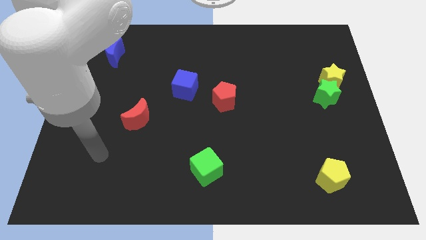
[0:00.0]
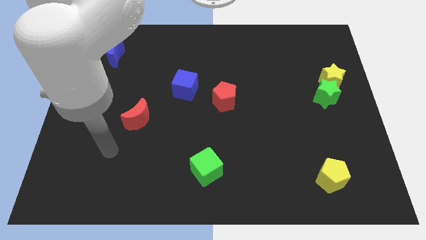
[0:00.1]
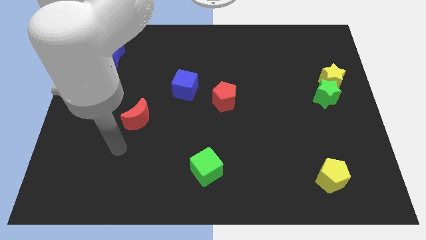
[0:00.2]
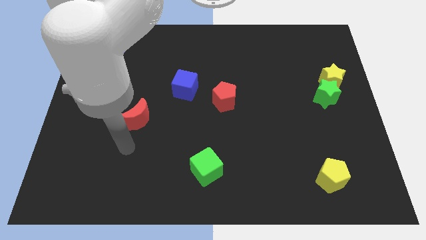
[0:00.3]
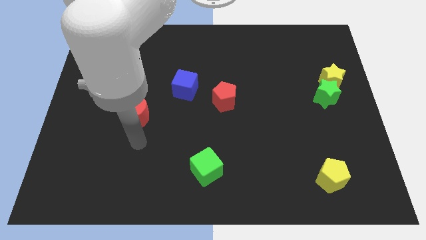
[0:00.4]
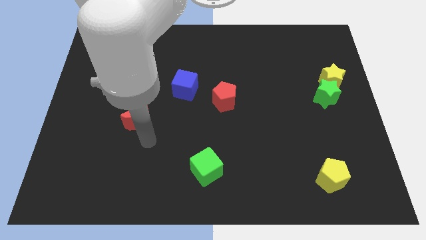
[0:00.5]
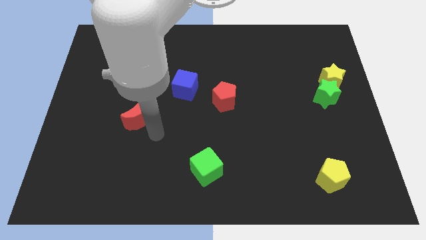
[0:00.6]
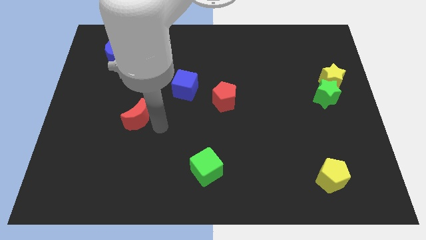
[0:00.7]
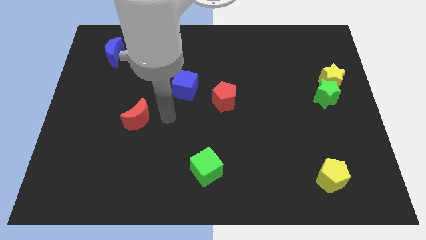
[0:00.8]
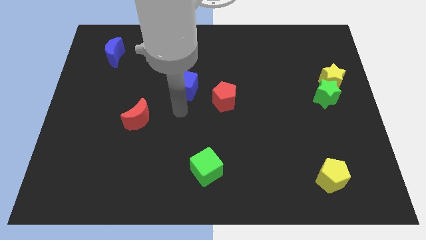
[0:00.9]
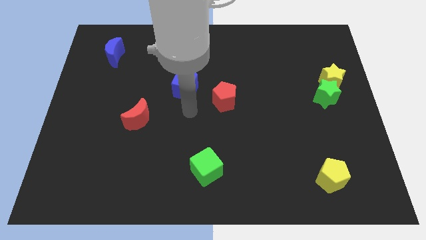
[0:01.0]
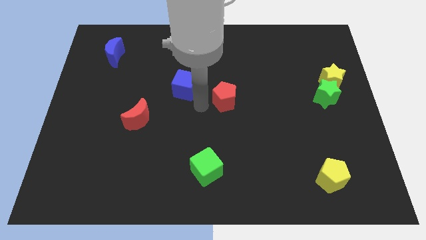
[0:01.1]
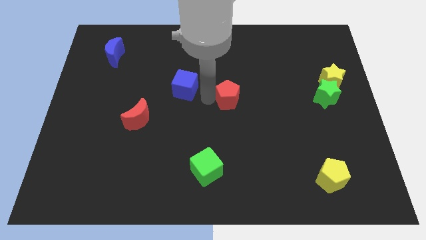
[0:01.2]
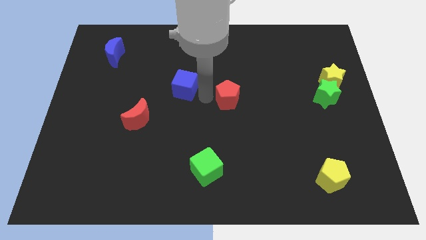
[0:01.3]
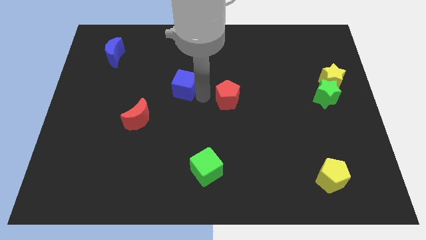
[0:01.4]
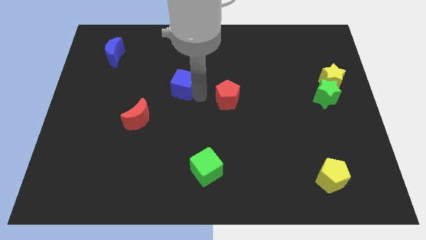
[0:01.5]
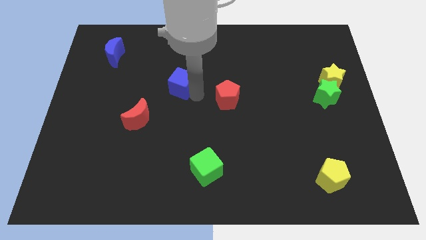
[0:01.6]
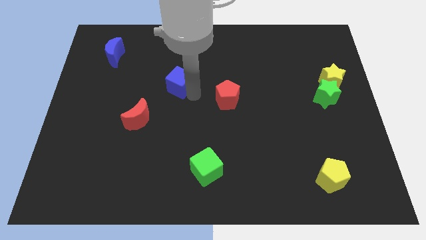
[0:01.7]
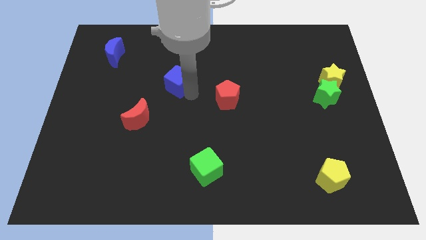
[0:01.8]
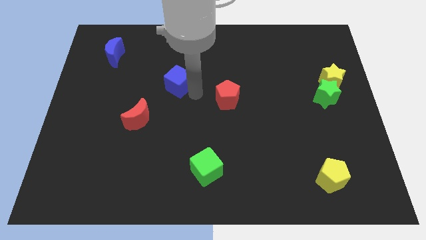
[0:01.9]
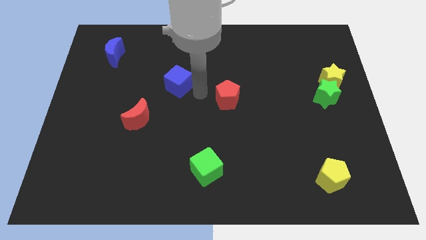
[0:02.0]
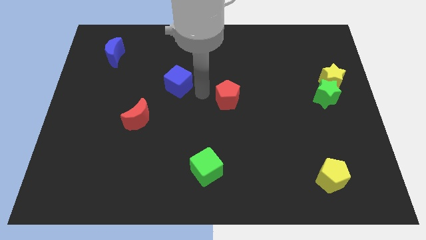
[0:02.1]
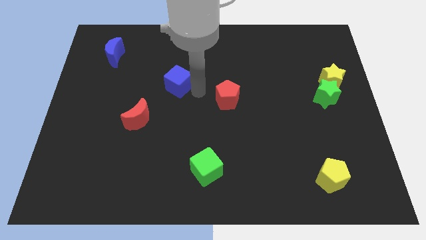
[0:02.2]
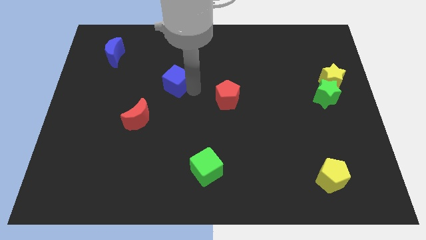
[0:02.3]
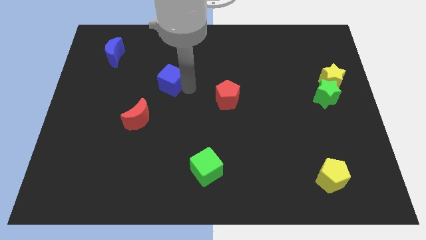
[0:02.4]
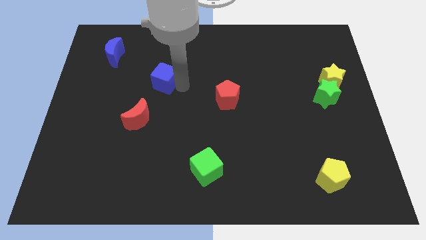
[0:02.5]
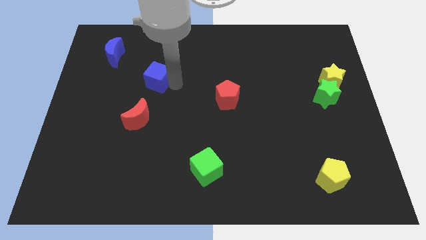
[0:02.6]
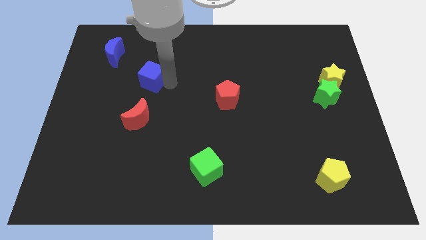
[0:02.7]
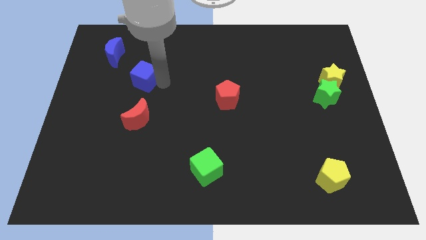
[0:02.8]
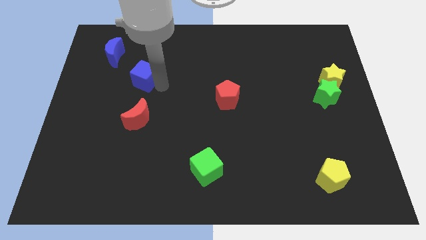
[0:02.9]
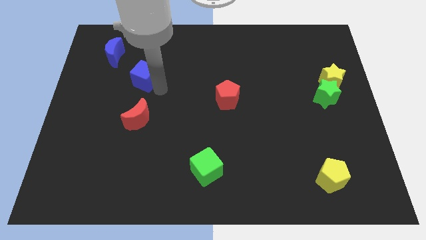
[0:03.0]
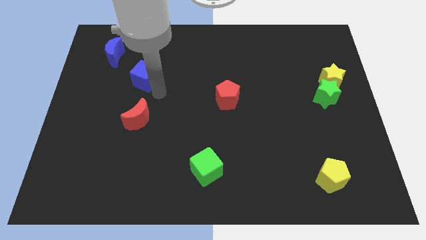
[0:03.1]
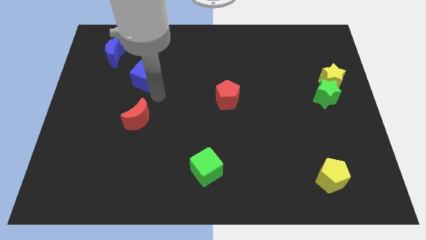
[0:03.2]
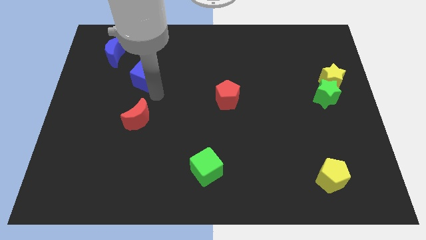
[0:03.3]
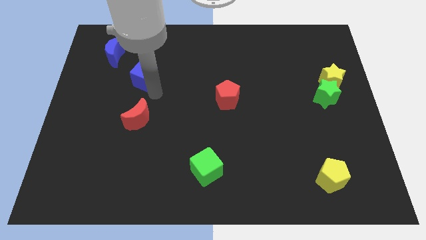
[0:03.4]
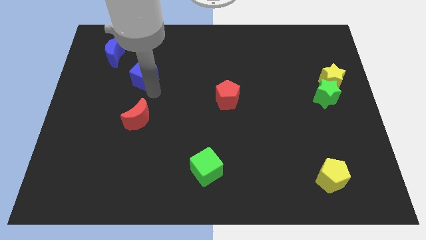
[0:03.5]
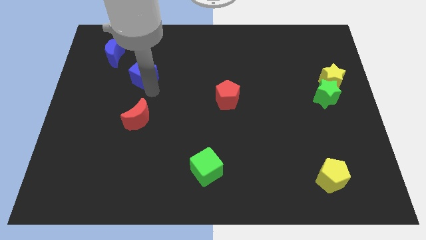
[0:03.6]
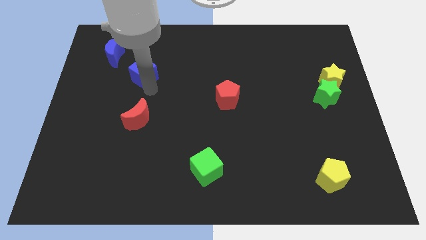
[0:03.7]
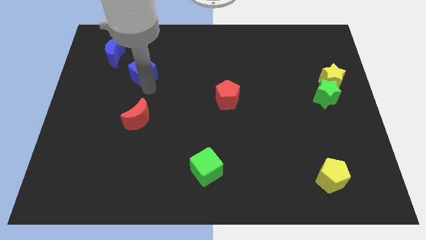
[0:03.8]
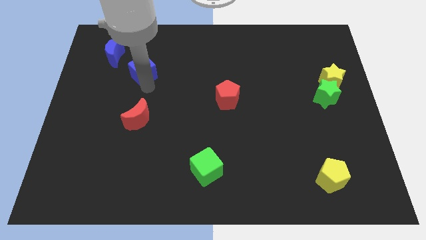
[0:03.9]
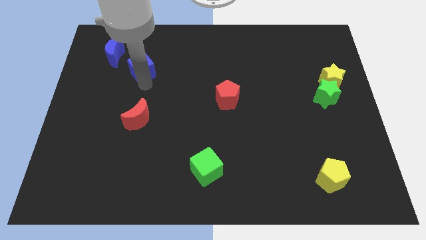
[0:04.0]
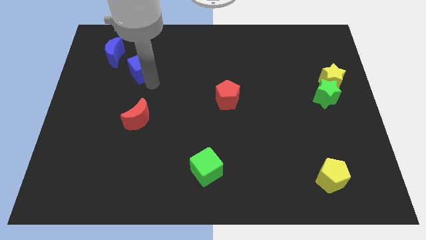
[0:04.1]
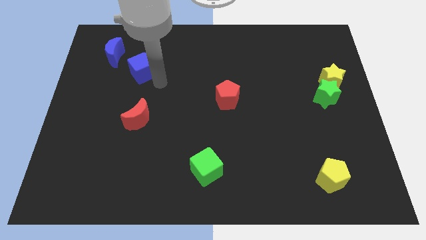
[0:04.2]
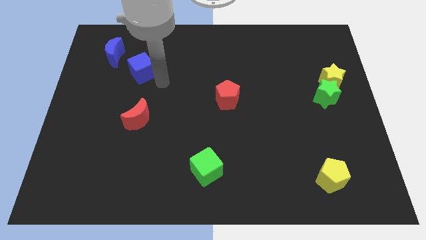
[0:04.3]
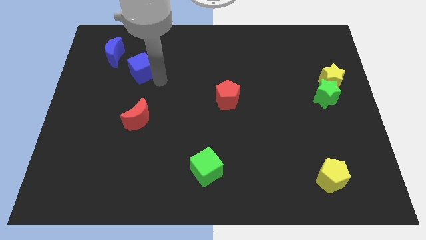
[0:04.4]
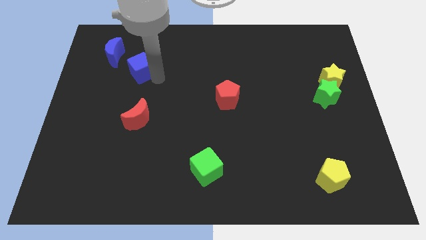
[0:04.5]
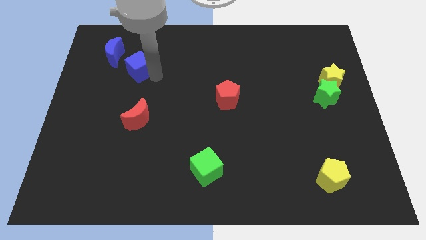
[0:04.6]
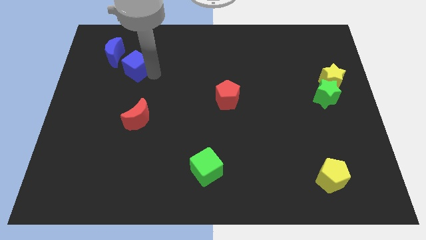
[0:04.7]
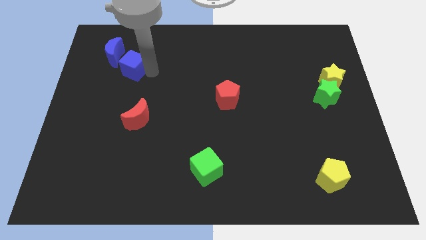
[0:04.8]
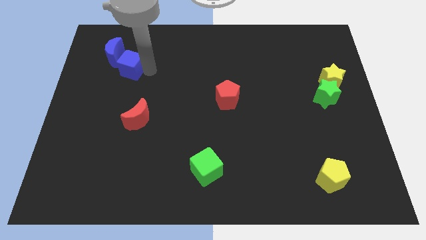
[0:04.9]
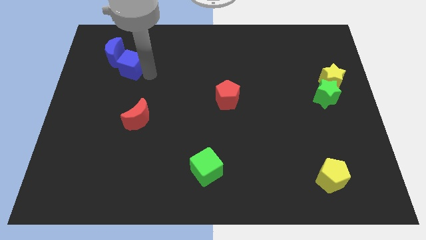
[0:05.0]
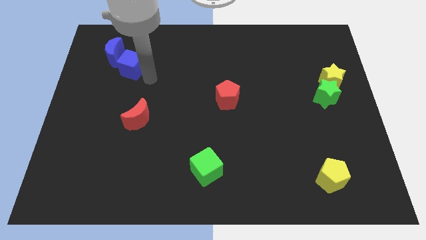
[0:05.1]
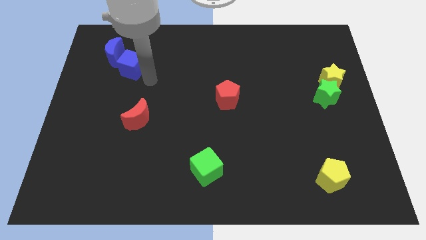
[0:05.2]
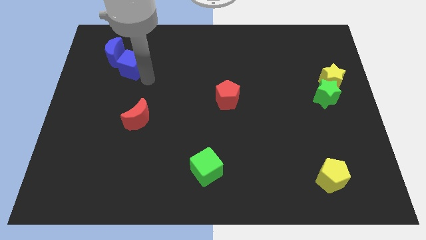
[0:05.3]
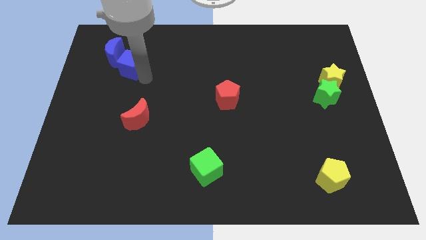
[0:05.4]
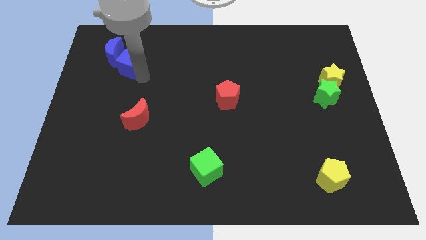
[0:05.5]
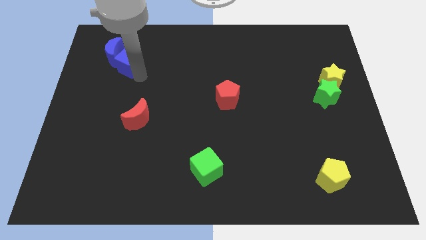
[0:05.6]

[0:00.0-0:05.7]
slide the blue cube close to the blue moon

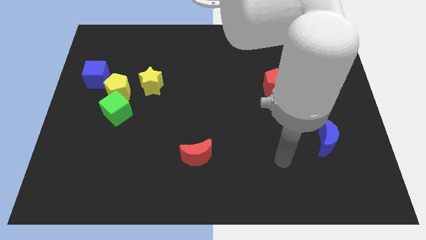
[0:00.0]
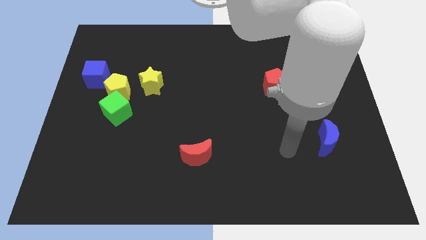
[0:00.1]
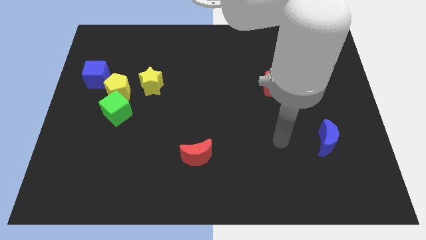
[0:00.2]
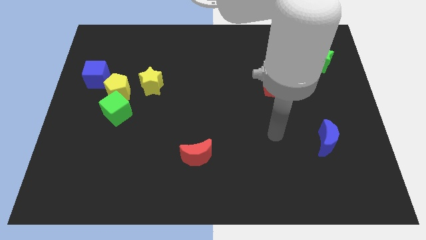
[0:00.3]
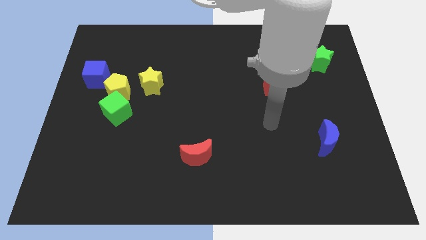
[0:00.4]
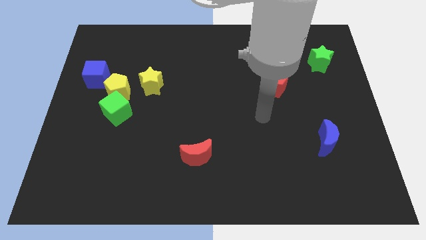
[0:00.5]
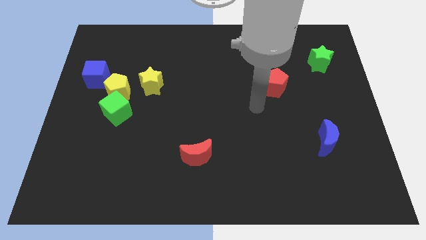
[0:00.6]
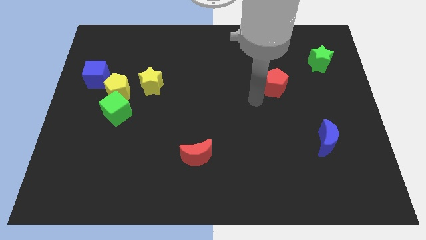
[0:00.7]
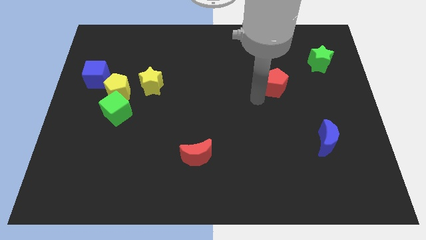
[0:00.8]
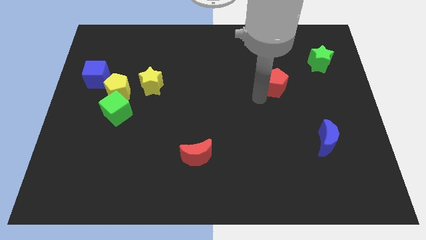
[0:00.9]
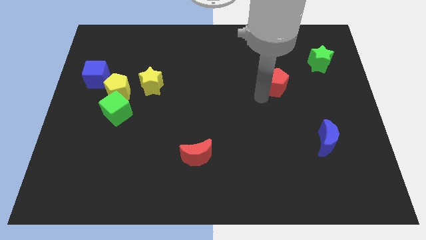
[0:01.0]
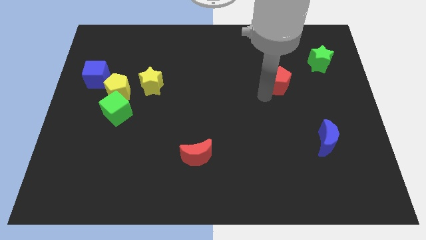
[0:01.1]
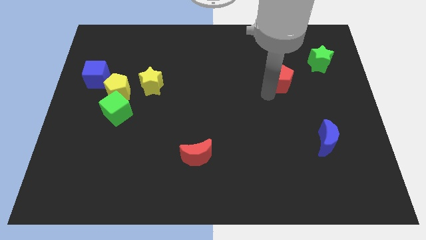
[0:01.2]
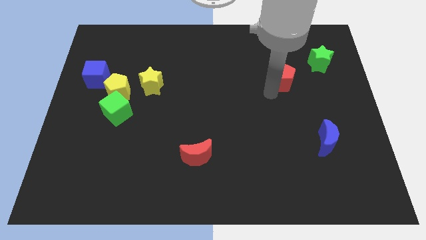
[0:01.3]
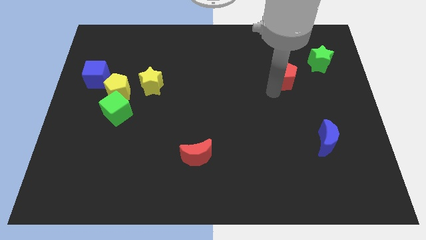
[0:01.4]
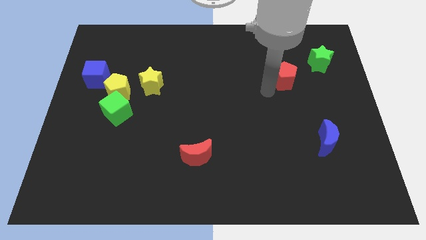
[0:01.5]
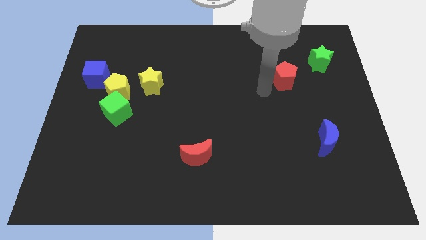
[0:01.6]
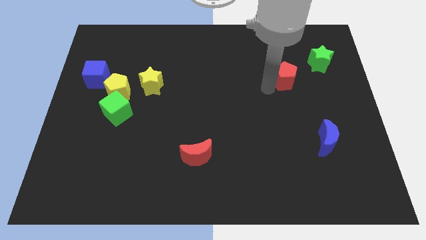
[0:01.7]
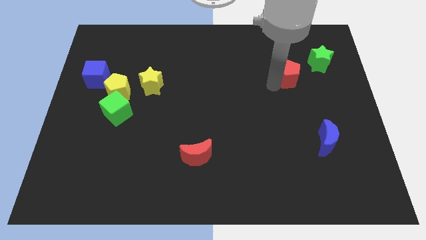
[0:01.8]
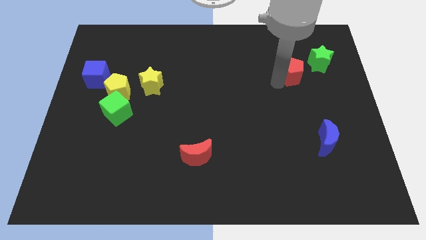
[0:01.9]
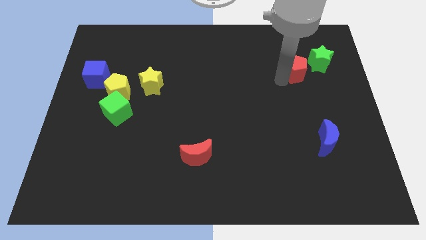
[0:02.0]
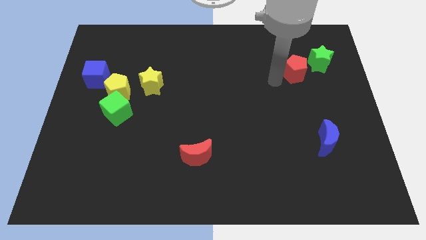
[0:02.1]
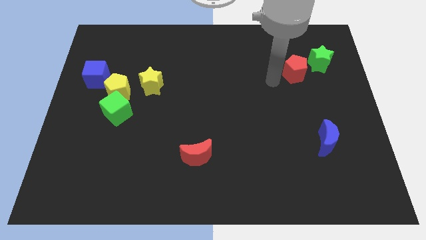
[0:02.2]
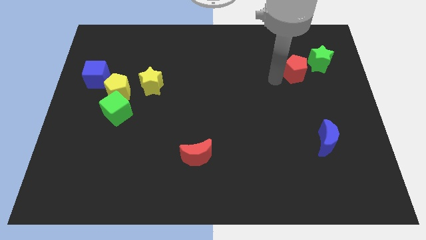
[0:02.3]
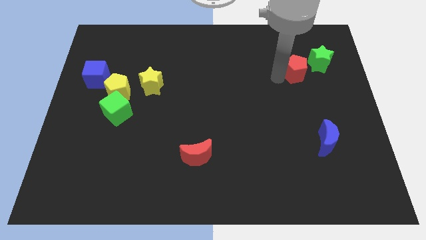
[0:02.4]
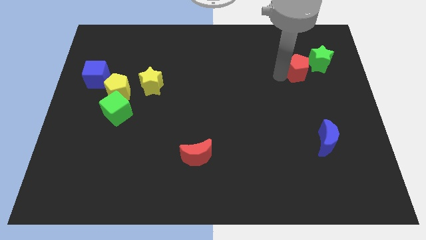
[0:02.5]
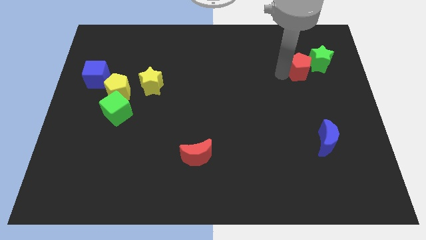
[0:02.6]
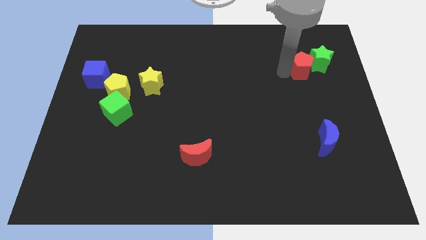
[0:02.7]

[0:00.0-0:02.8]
move the red pentagon next to the green star
